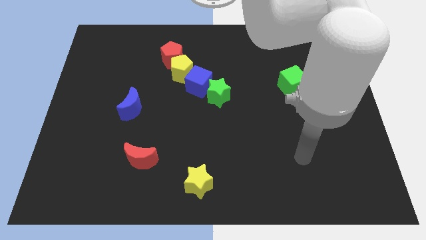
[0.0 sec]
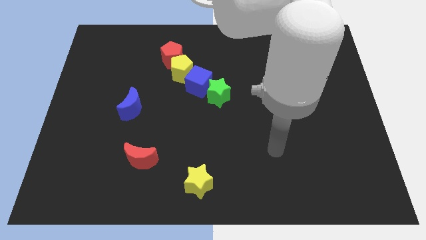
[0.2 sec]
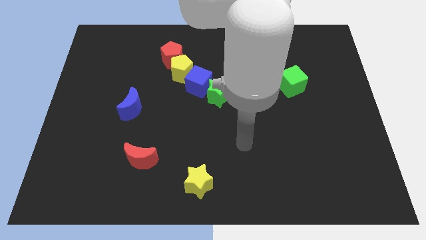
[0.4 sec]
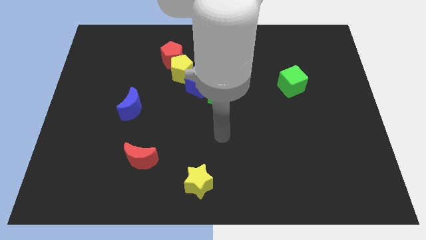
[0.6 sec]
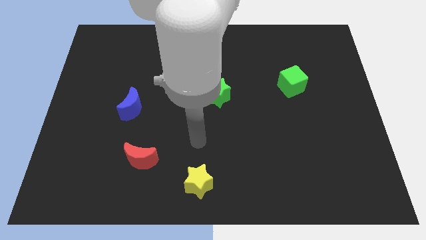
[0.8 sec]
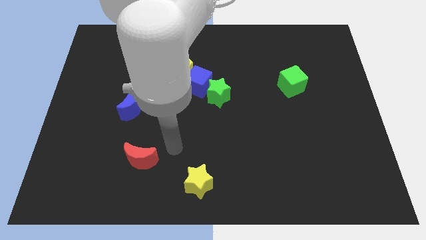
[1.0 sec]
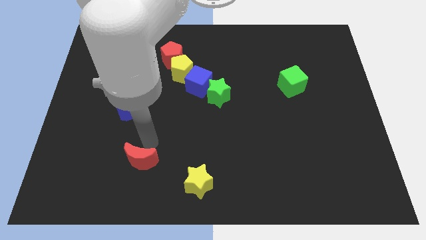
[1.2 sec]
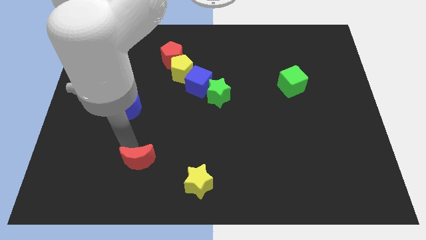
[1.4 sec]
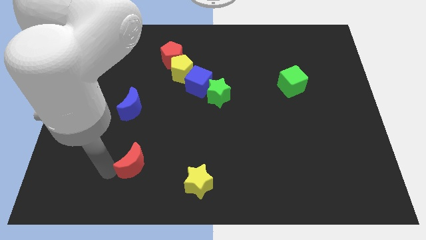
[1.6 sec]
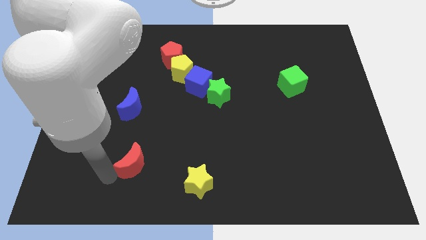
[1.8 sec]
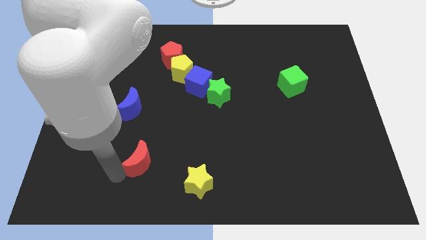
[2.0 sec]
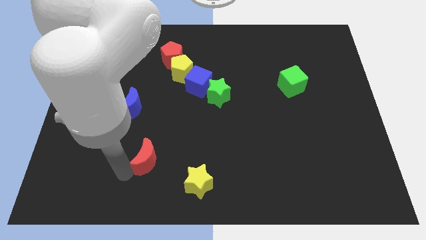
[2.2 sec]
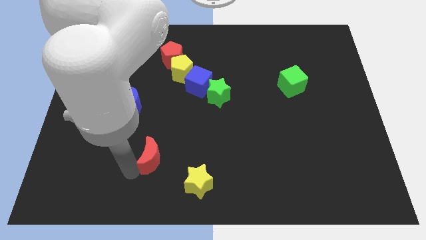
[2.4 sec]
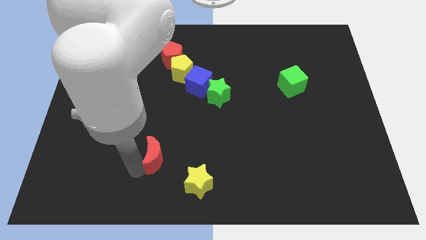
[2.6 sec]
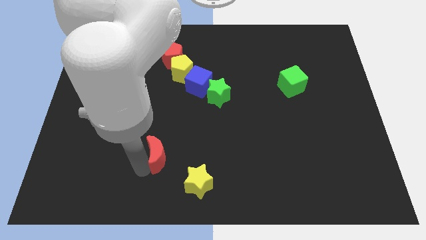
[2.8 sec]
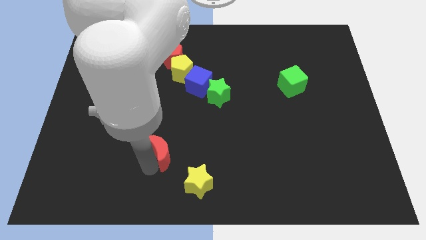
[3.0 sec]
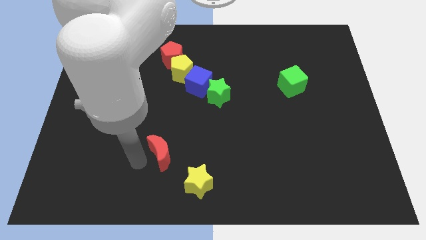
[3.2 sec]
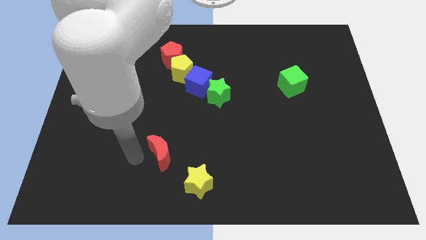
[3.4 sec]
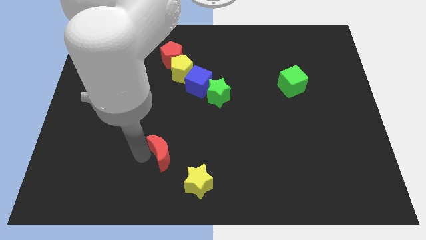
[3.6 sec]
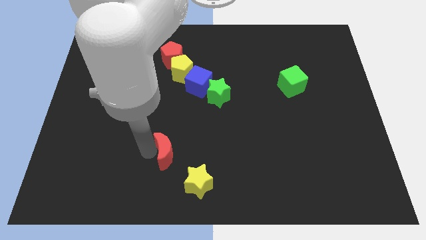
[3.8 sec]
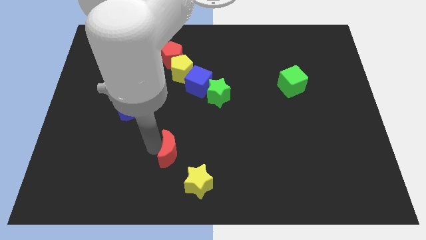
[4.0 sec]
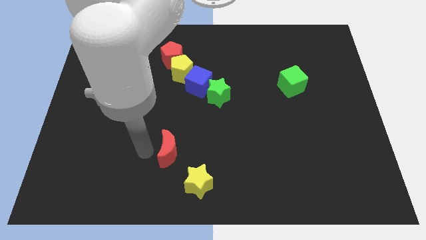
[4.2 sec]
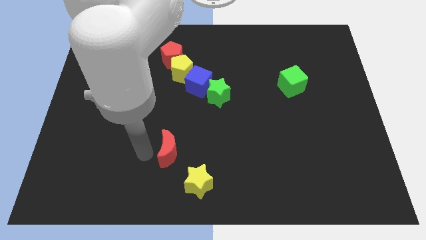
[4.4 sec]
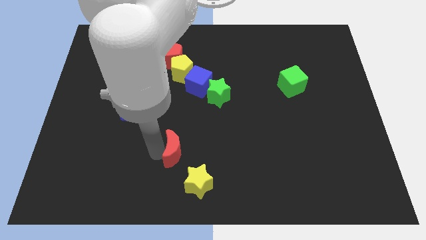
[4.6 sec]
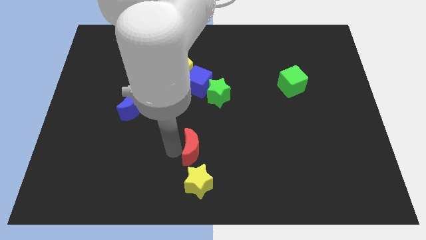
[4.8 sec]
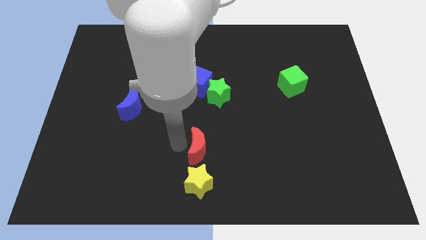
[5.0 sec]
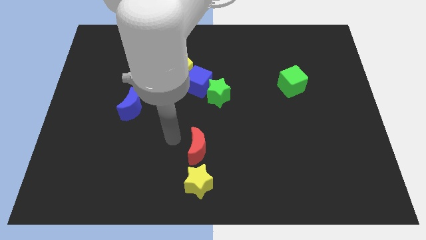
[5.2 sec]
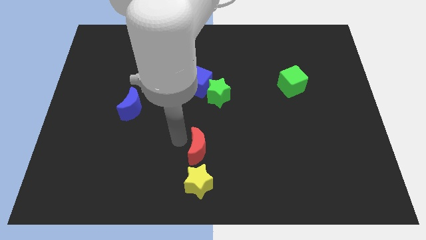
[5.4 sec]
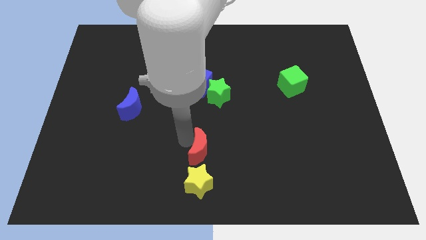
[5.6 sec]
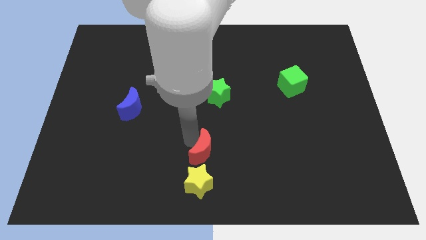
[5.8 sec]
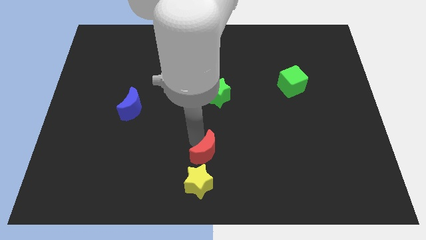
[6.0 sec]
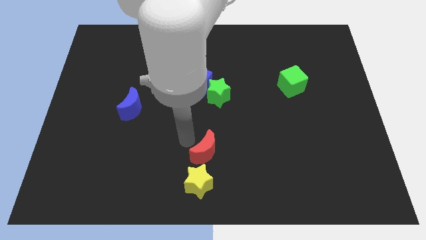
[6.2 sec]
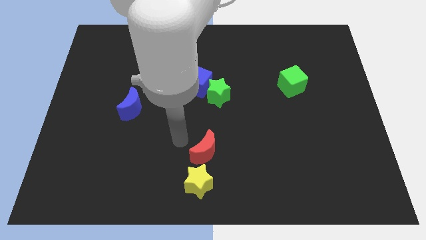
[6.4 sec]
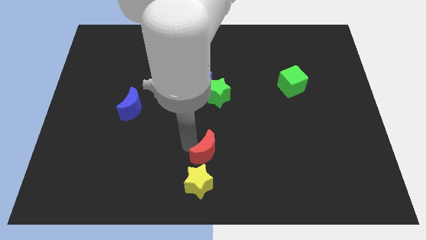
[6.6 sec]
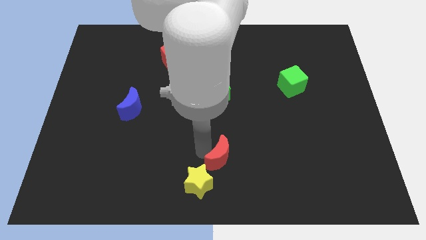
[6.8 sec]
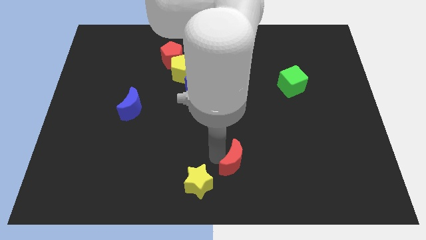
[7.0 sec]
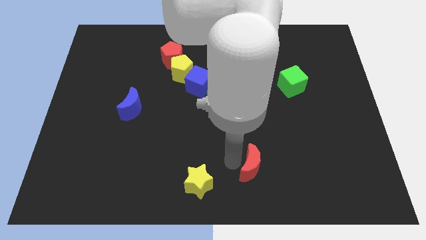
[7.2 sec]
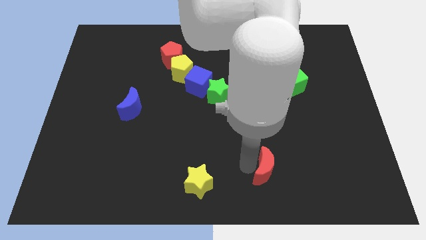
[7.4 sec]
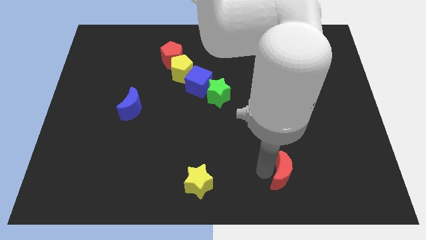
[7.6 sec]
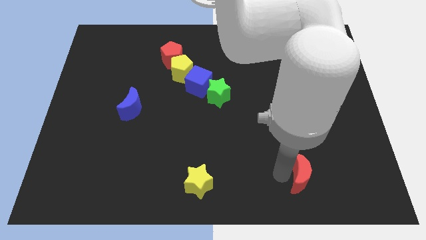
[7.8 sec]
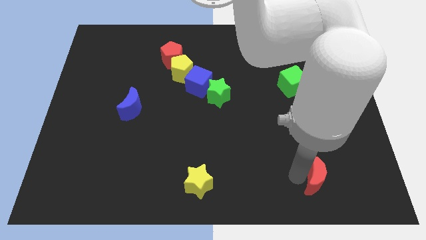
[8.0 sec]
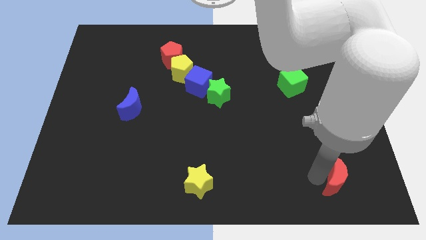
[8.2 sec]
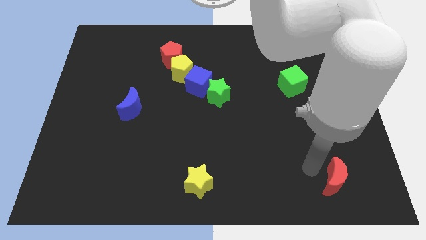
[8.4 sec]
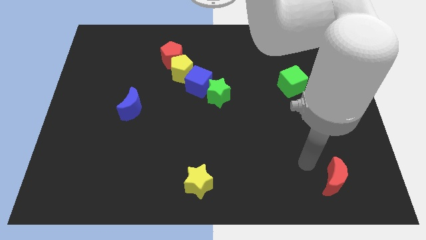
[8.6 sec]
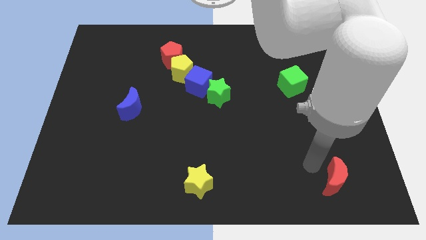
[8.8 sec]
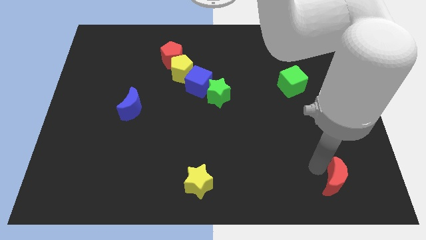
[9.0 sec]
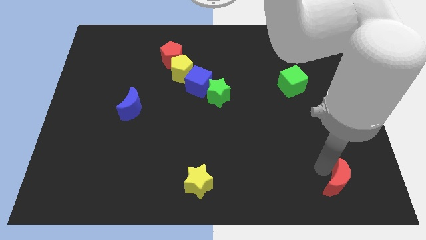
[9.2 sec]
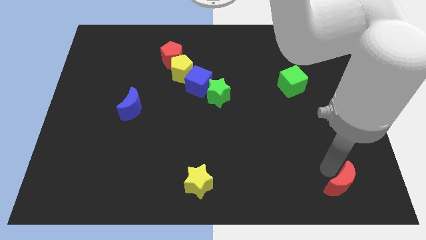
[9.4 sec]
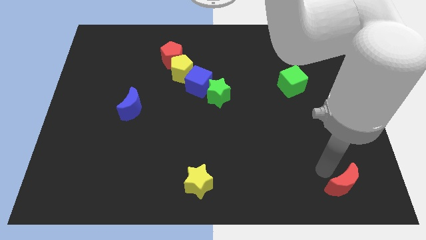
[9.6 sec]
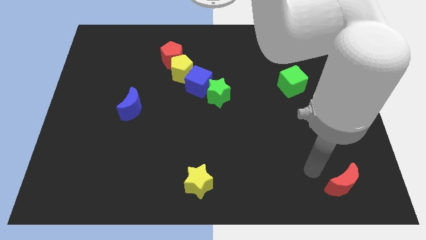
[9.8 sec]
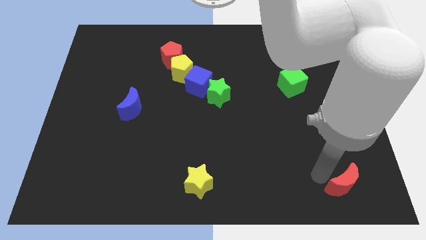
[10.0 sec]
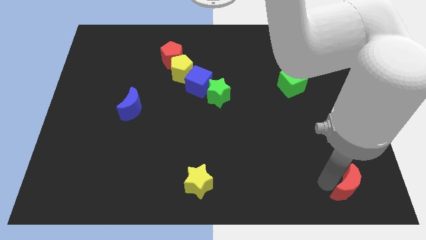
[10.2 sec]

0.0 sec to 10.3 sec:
put the red moon to the lower right corner

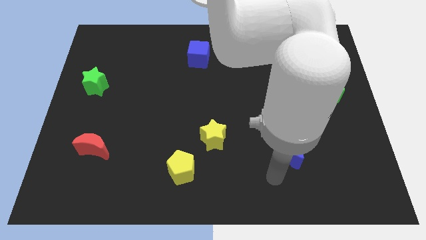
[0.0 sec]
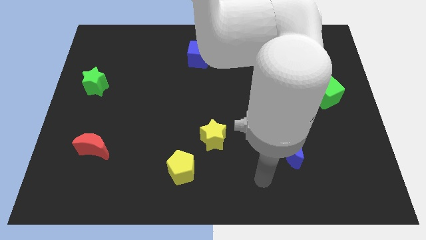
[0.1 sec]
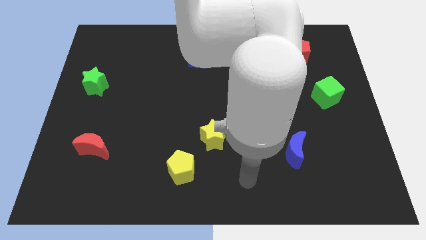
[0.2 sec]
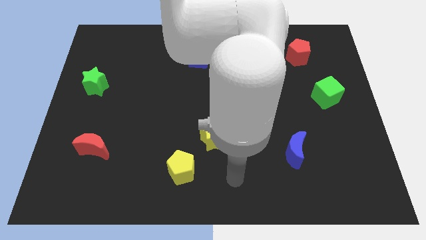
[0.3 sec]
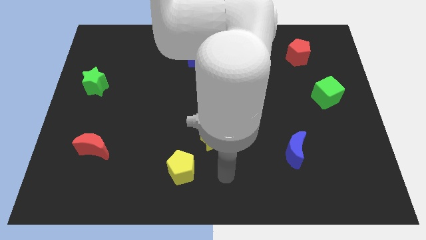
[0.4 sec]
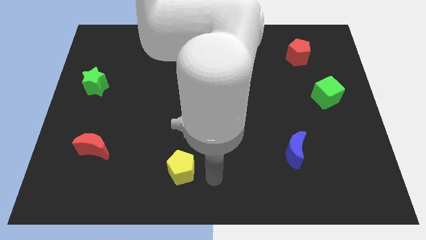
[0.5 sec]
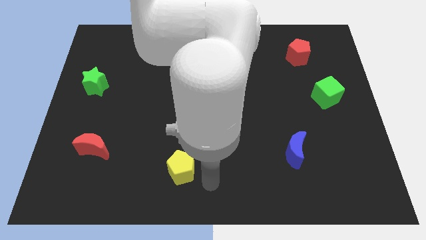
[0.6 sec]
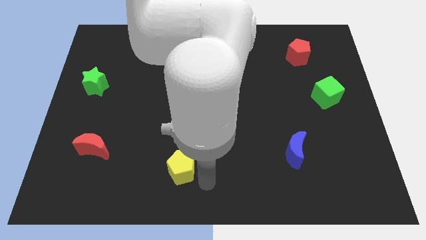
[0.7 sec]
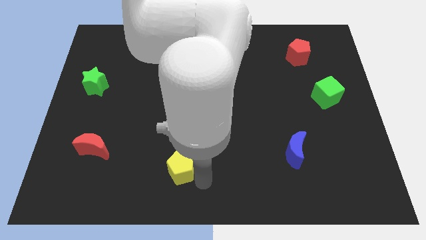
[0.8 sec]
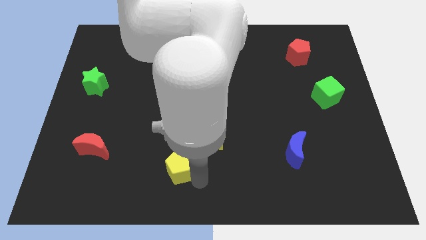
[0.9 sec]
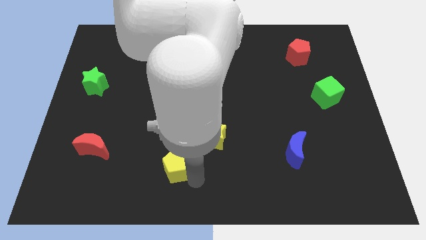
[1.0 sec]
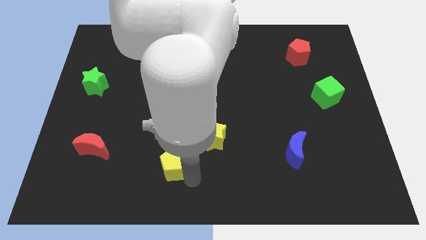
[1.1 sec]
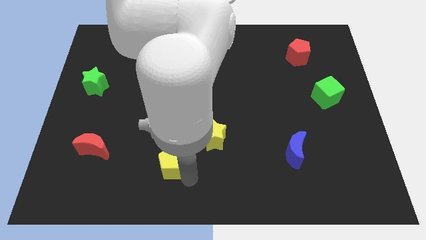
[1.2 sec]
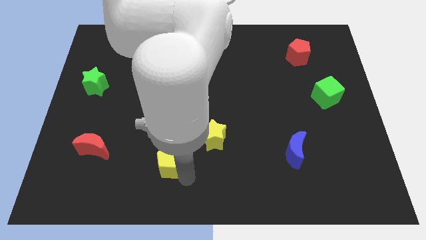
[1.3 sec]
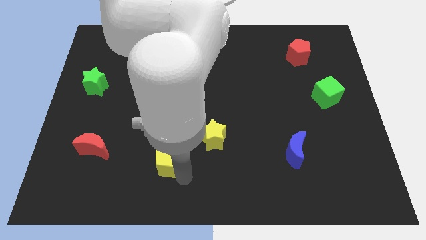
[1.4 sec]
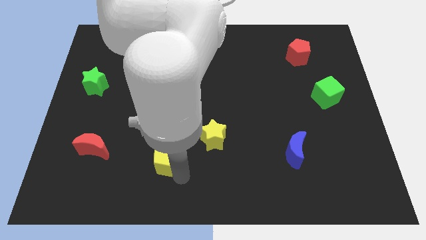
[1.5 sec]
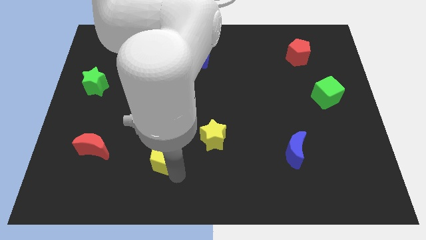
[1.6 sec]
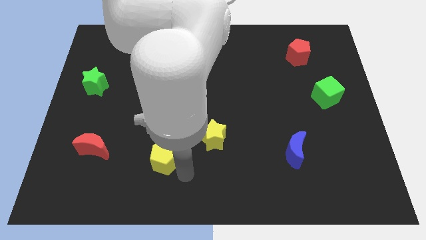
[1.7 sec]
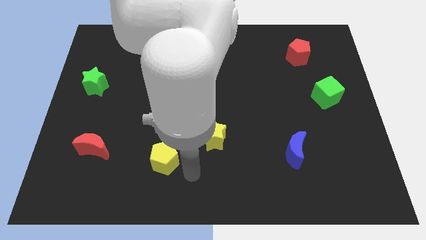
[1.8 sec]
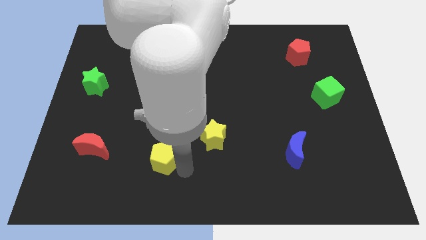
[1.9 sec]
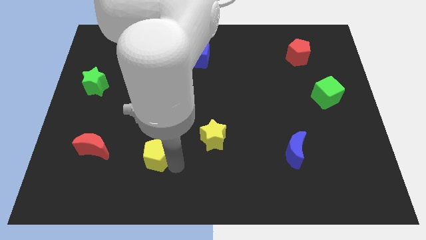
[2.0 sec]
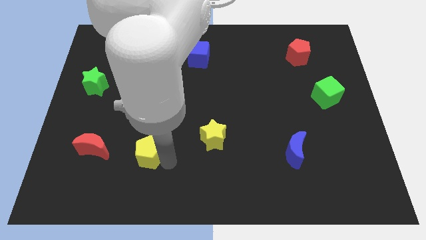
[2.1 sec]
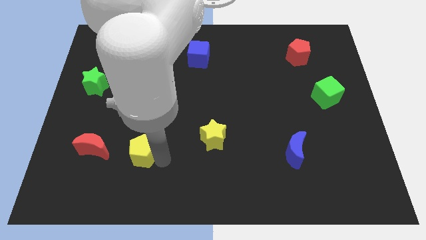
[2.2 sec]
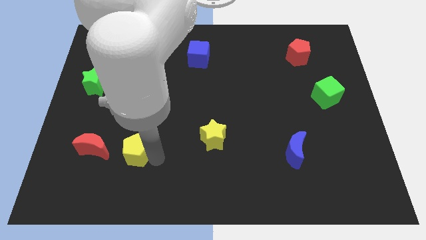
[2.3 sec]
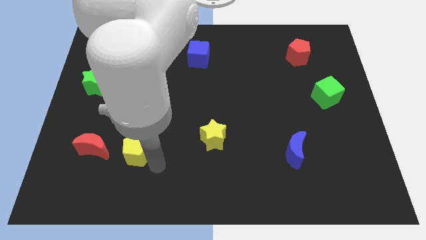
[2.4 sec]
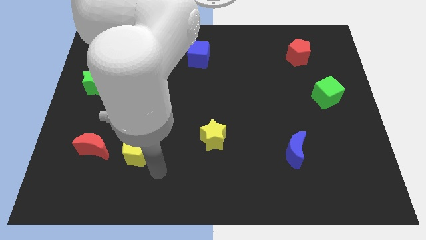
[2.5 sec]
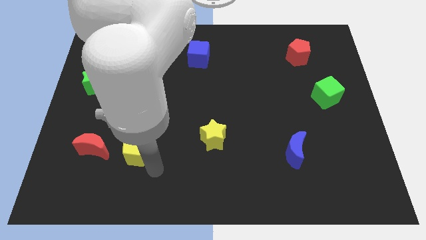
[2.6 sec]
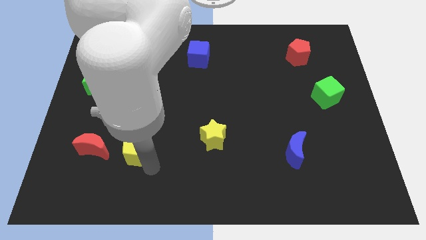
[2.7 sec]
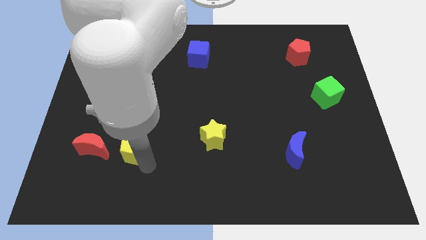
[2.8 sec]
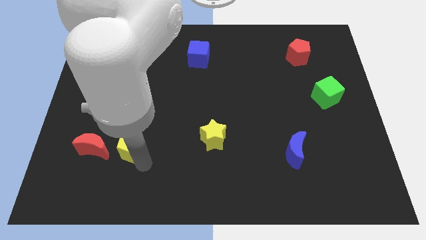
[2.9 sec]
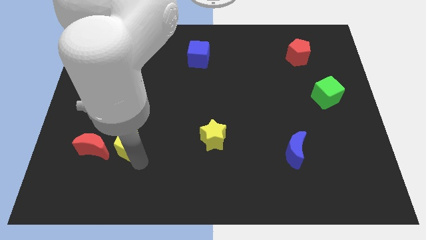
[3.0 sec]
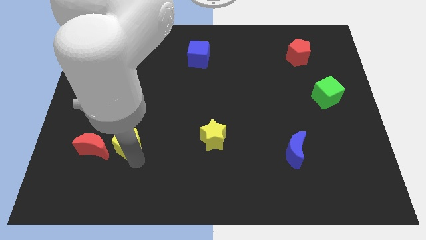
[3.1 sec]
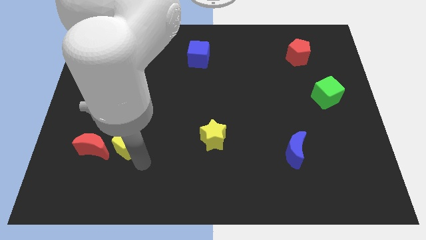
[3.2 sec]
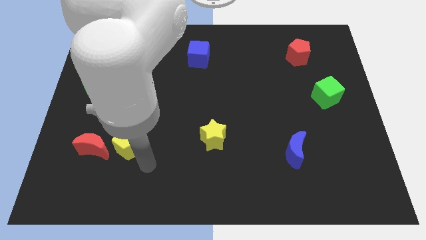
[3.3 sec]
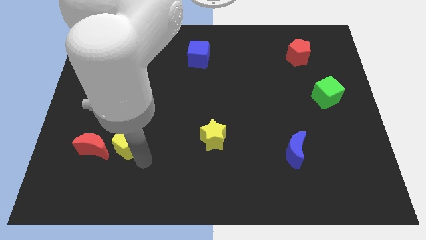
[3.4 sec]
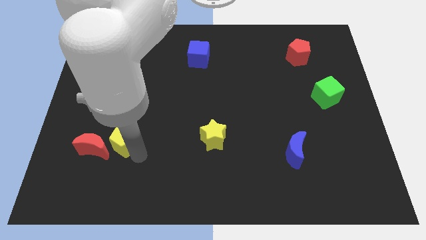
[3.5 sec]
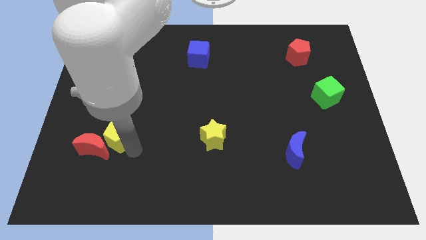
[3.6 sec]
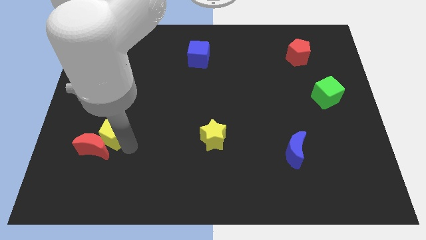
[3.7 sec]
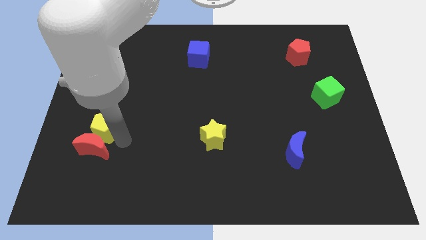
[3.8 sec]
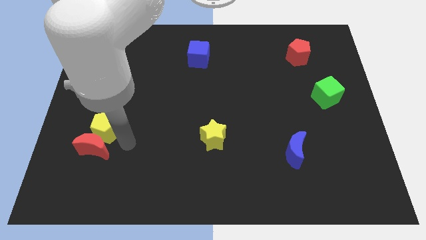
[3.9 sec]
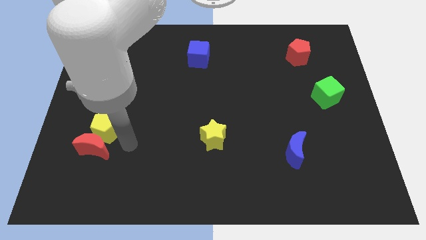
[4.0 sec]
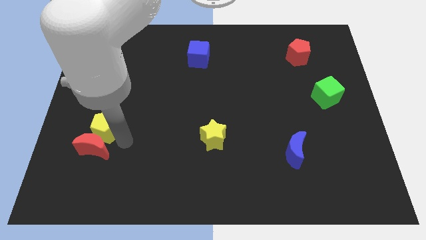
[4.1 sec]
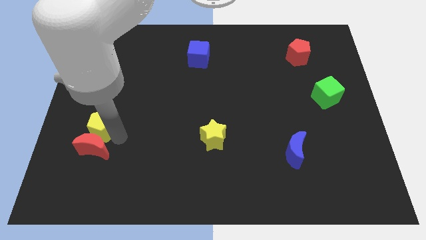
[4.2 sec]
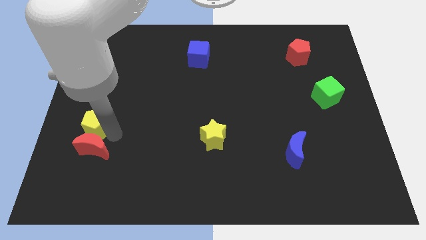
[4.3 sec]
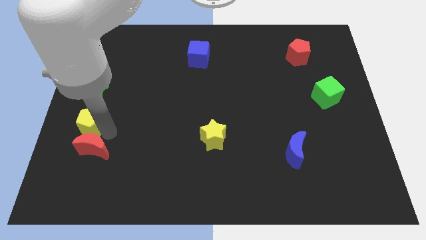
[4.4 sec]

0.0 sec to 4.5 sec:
push the yellow pentagon to the left side of the board
